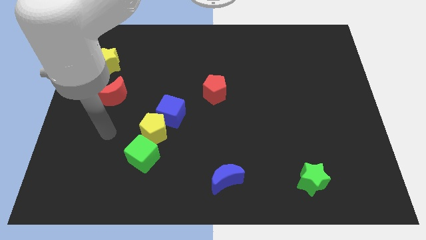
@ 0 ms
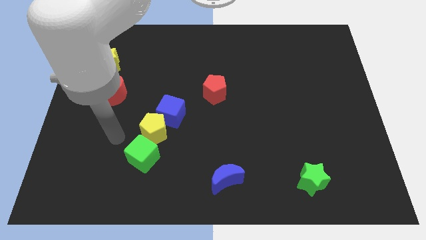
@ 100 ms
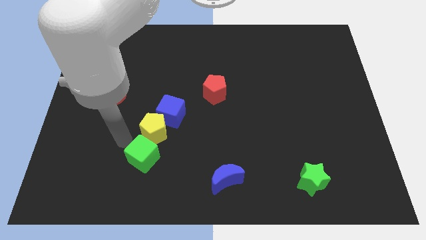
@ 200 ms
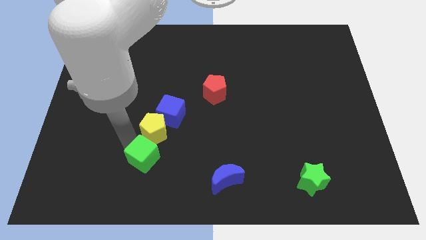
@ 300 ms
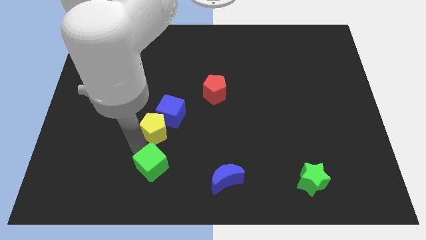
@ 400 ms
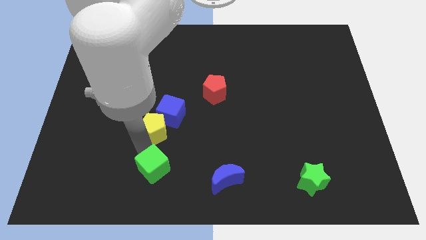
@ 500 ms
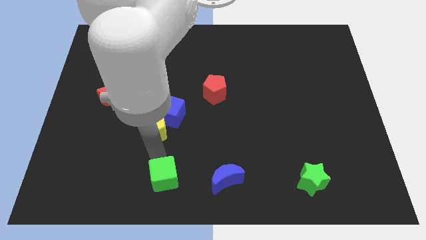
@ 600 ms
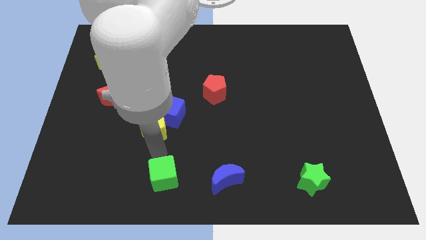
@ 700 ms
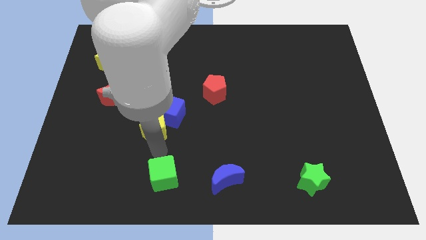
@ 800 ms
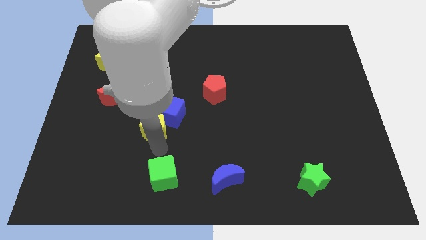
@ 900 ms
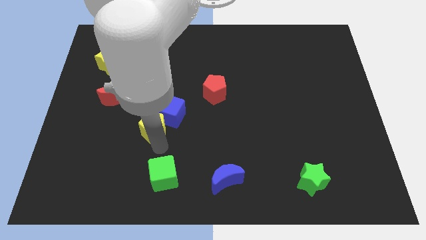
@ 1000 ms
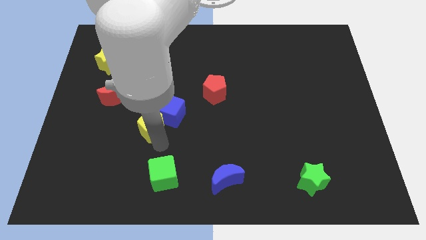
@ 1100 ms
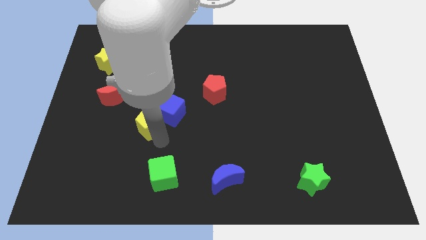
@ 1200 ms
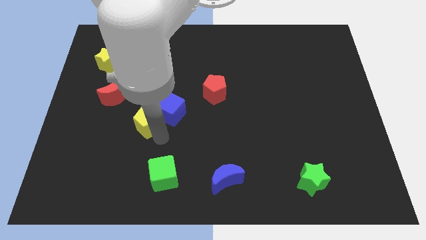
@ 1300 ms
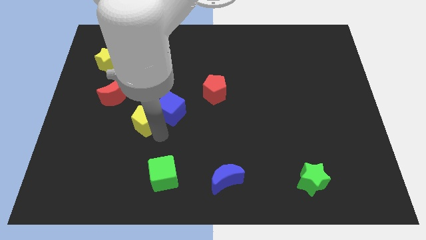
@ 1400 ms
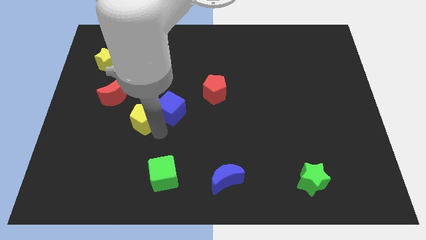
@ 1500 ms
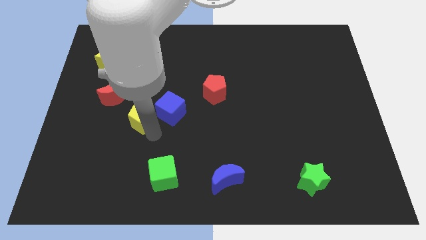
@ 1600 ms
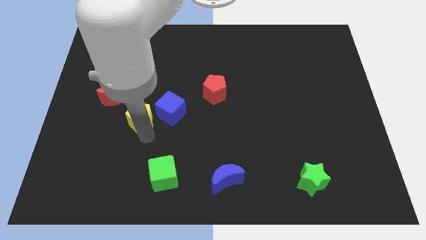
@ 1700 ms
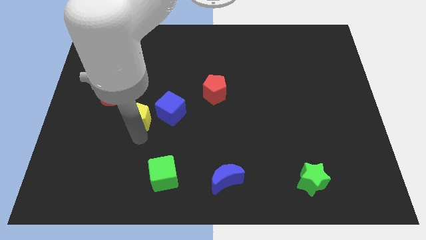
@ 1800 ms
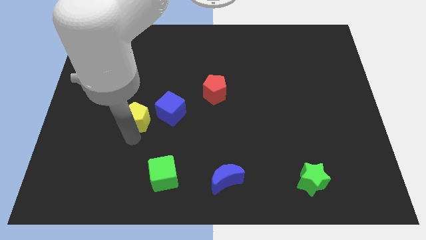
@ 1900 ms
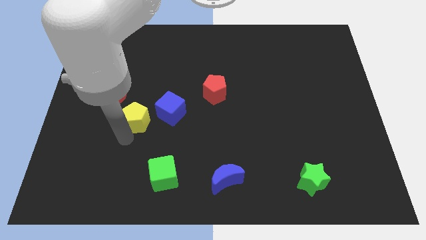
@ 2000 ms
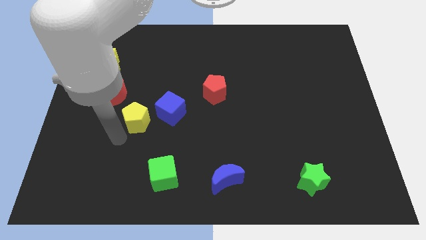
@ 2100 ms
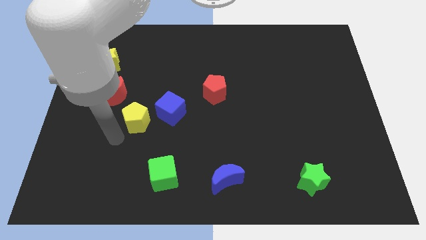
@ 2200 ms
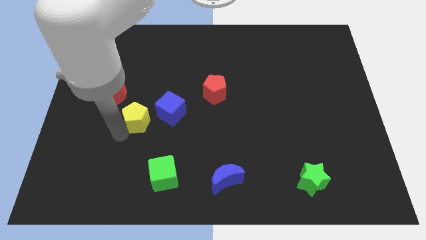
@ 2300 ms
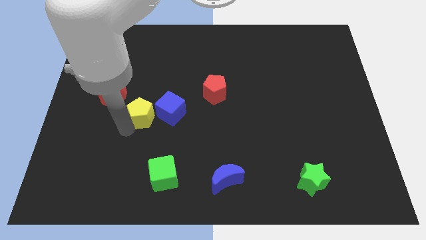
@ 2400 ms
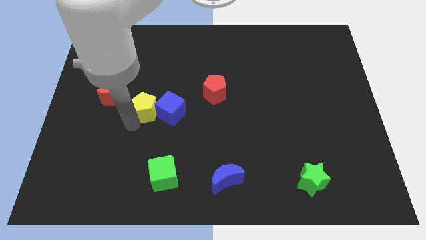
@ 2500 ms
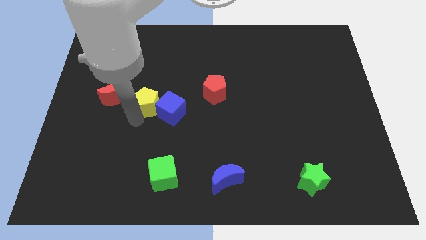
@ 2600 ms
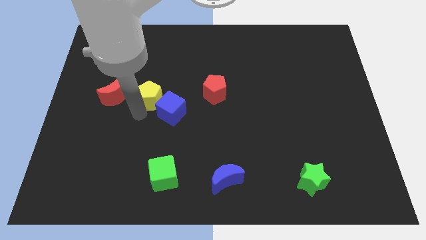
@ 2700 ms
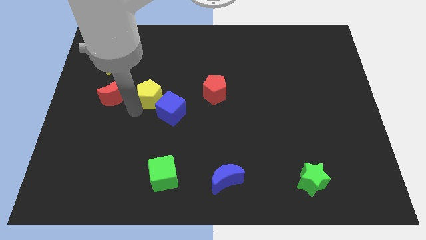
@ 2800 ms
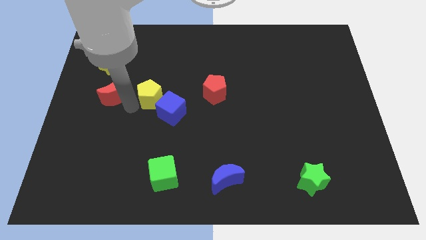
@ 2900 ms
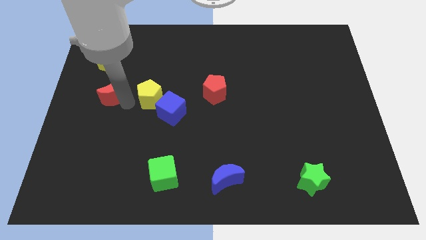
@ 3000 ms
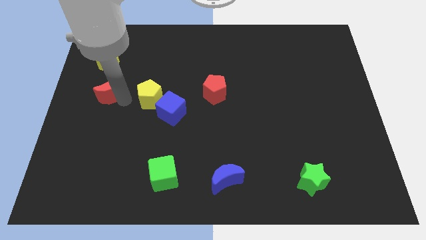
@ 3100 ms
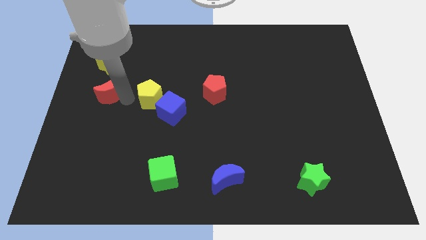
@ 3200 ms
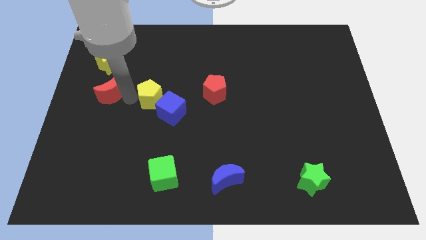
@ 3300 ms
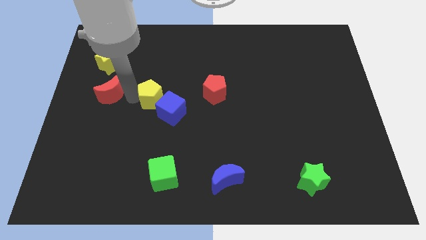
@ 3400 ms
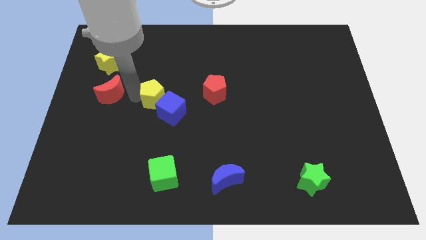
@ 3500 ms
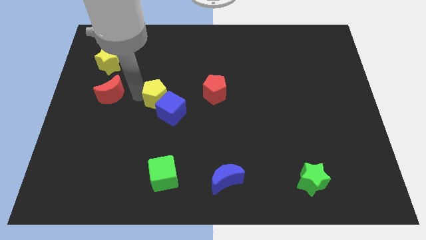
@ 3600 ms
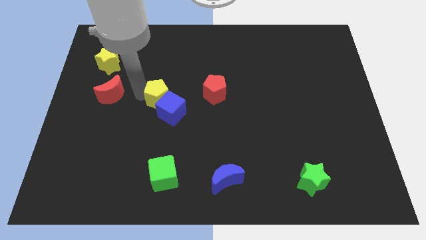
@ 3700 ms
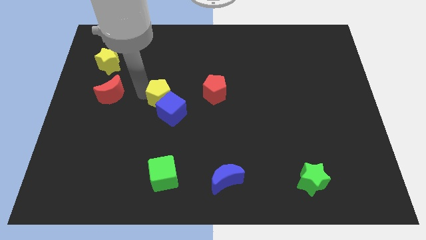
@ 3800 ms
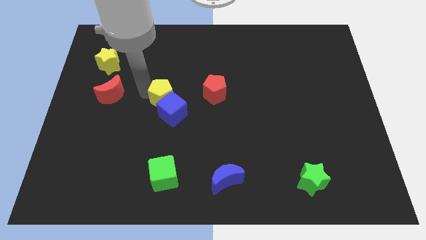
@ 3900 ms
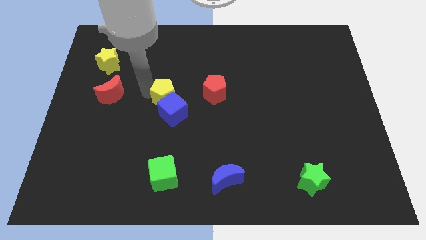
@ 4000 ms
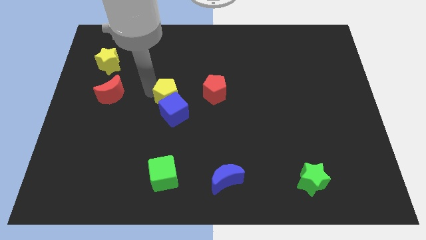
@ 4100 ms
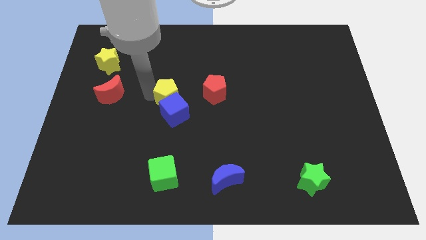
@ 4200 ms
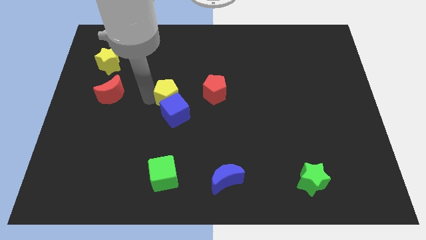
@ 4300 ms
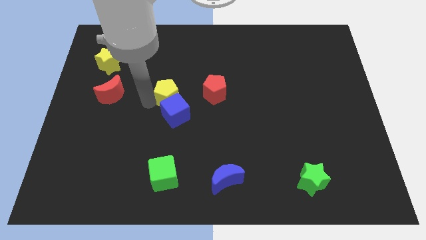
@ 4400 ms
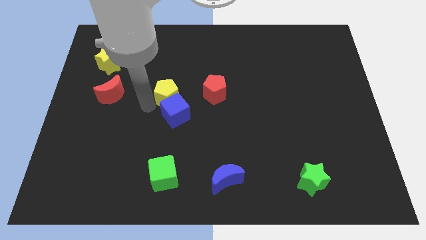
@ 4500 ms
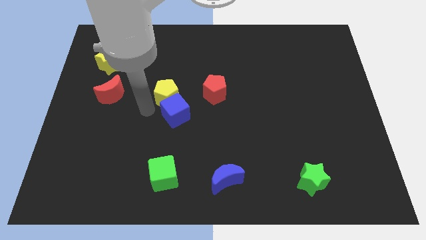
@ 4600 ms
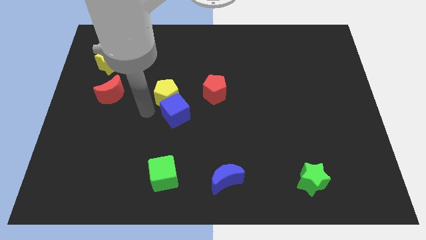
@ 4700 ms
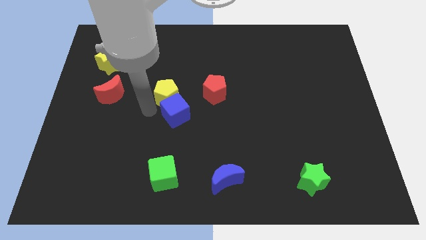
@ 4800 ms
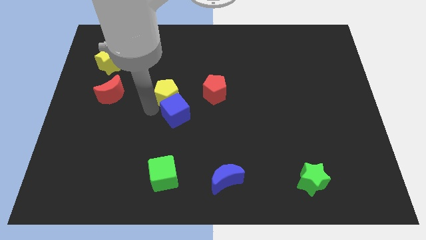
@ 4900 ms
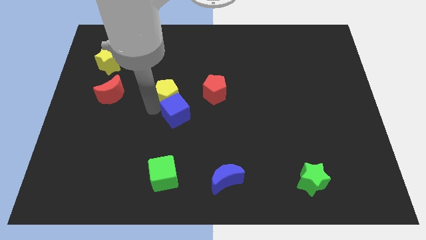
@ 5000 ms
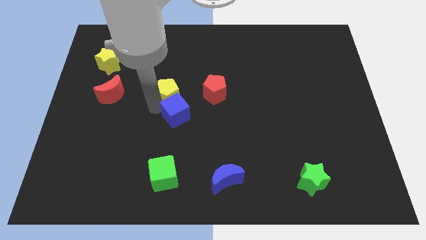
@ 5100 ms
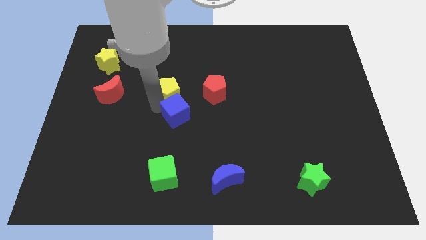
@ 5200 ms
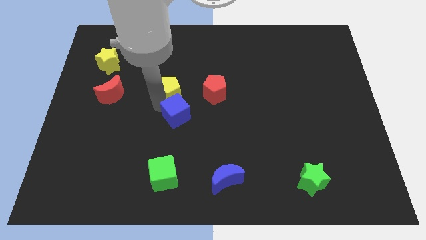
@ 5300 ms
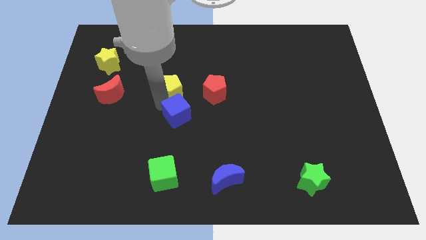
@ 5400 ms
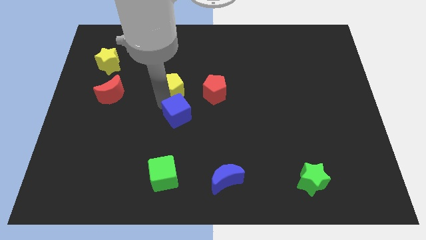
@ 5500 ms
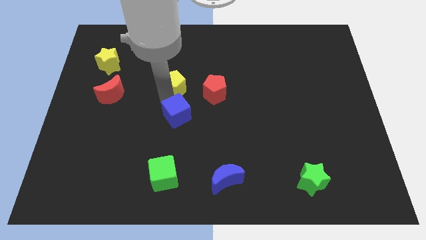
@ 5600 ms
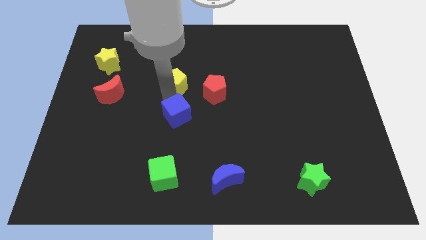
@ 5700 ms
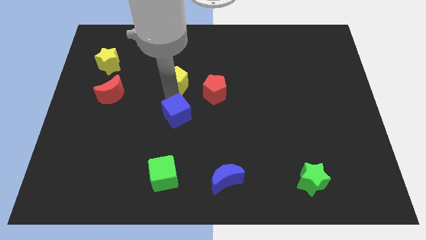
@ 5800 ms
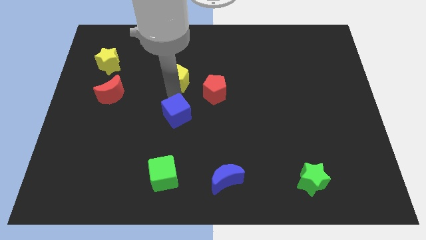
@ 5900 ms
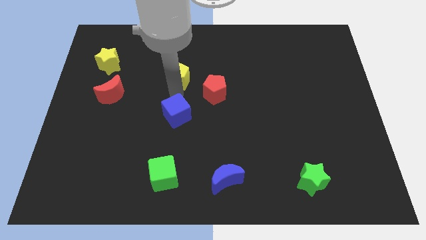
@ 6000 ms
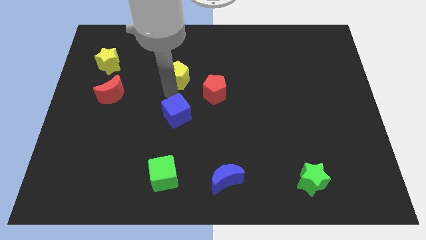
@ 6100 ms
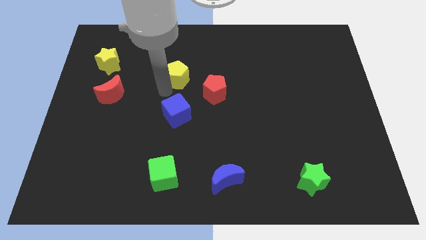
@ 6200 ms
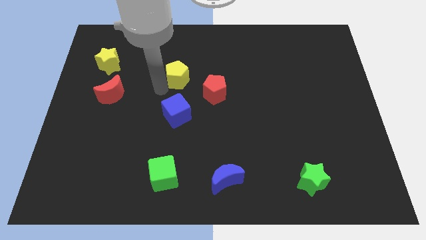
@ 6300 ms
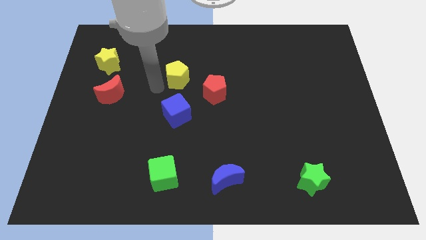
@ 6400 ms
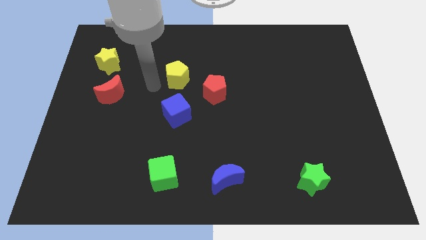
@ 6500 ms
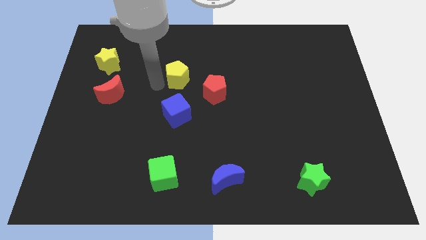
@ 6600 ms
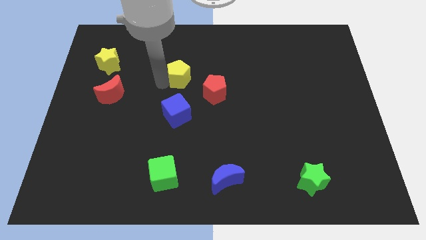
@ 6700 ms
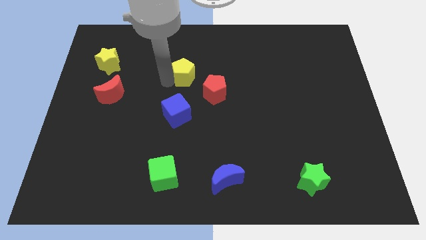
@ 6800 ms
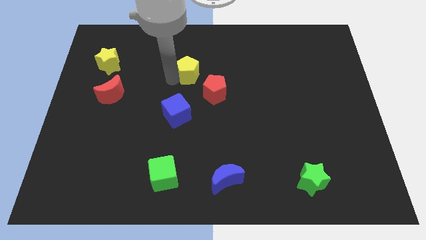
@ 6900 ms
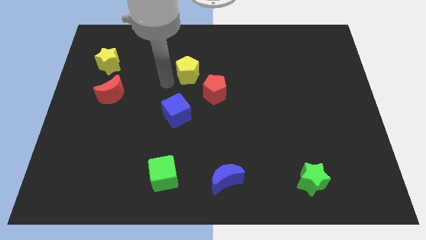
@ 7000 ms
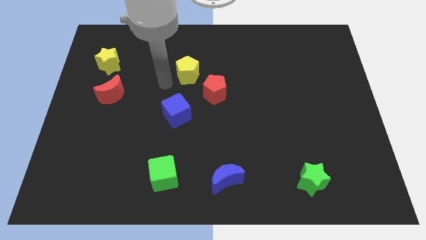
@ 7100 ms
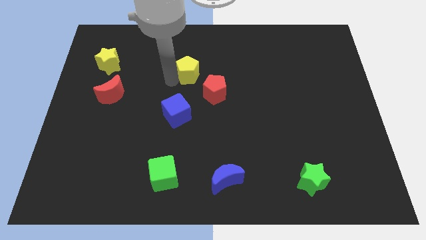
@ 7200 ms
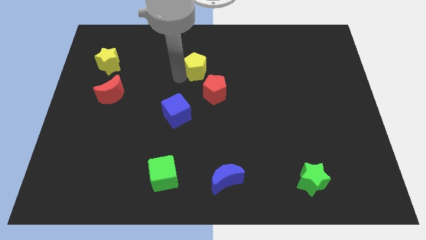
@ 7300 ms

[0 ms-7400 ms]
push the yellow pentagon to the top of the red pentagon
